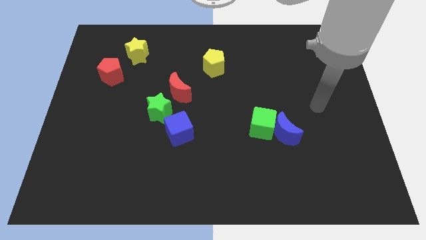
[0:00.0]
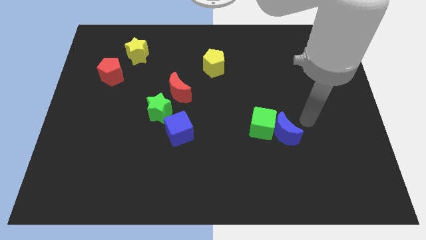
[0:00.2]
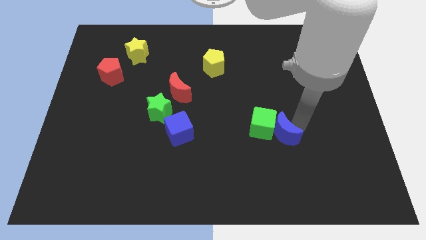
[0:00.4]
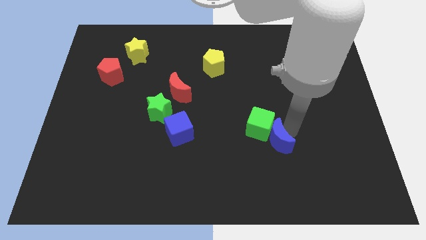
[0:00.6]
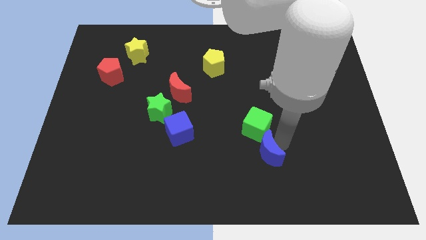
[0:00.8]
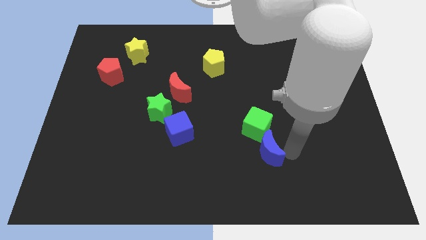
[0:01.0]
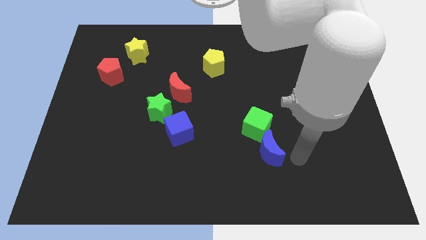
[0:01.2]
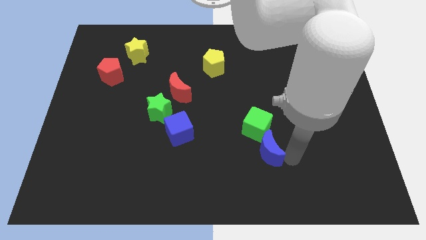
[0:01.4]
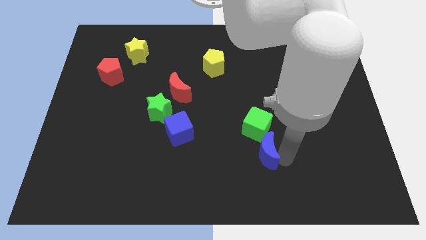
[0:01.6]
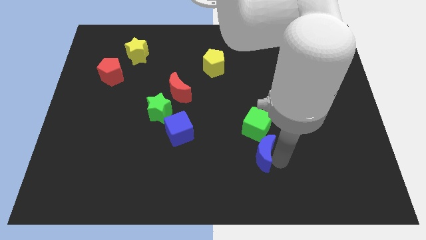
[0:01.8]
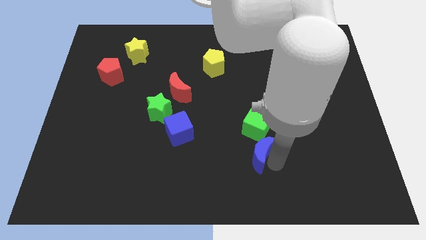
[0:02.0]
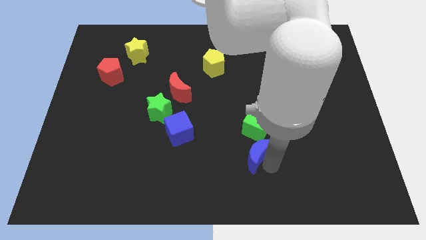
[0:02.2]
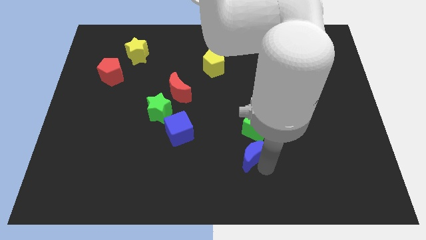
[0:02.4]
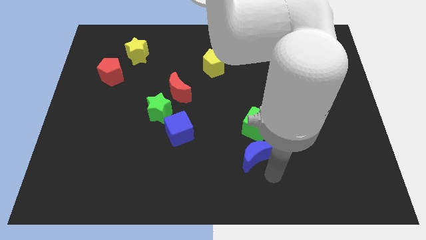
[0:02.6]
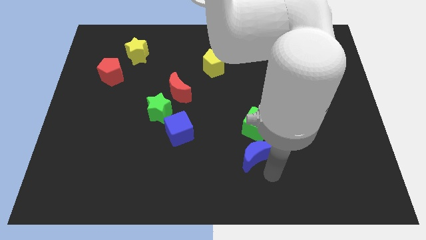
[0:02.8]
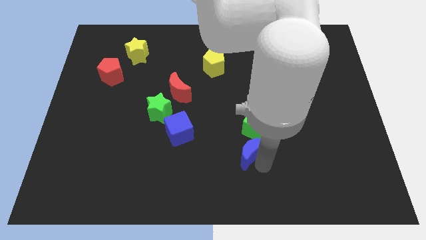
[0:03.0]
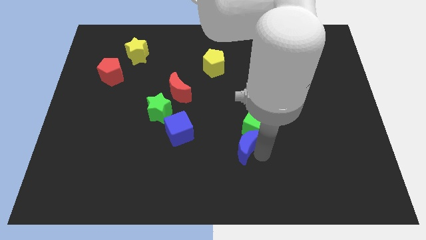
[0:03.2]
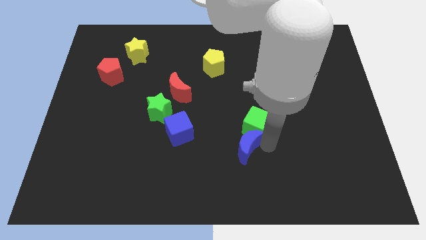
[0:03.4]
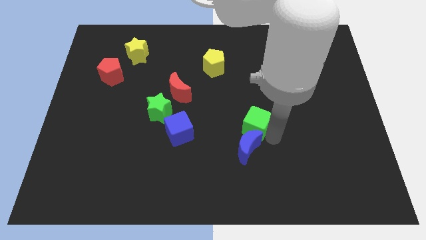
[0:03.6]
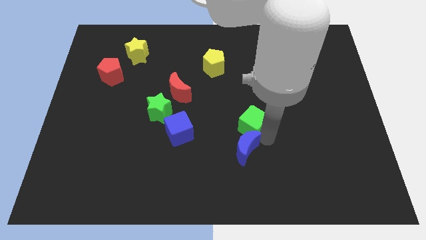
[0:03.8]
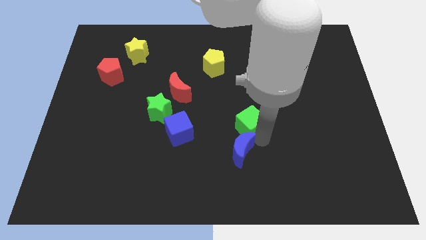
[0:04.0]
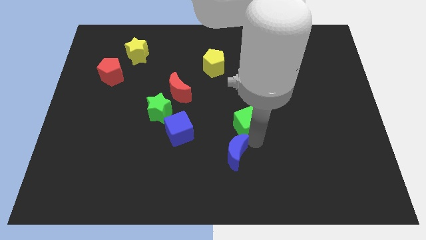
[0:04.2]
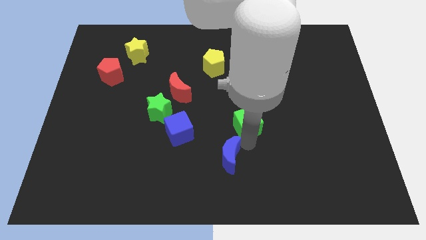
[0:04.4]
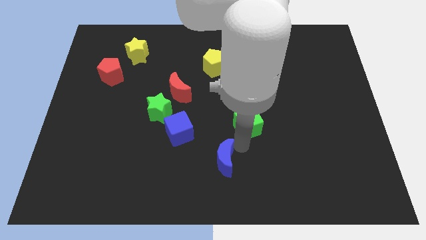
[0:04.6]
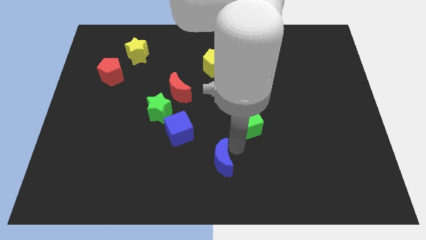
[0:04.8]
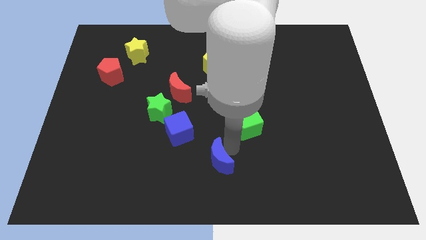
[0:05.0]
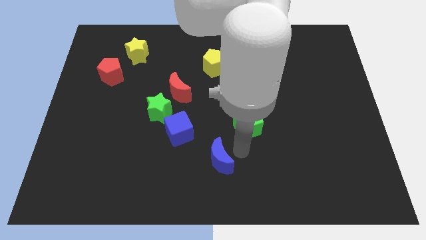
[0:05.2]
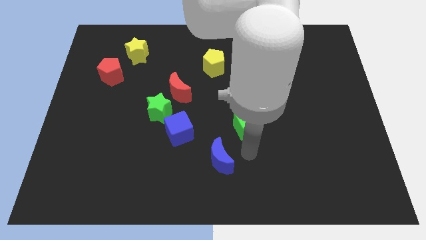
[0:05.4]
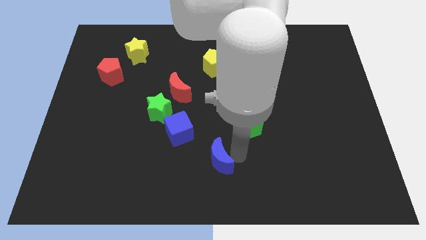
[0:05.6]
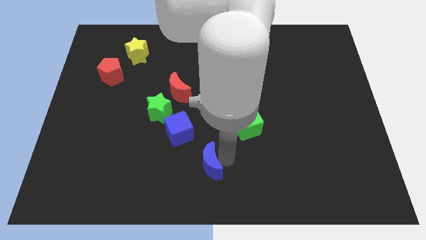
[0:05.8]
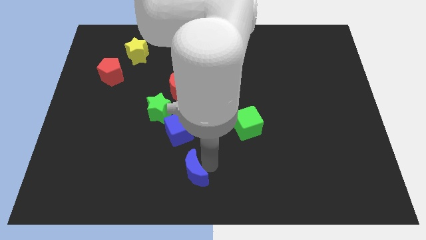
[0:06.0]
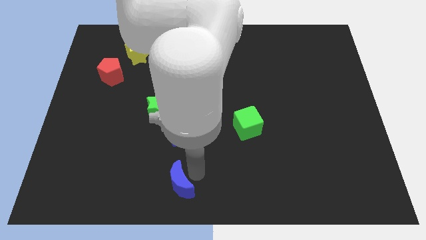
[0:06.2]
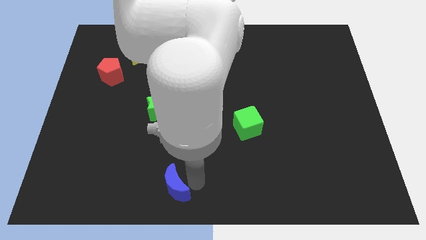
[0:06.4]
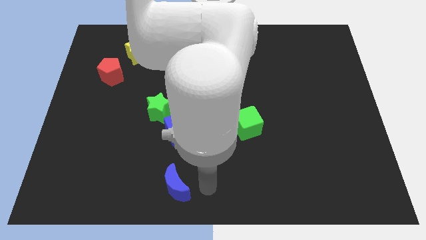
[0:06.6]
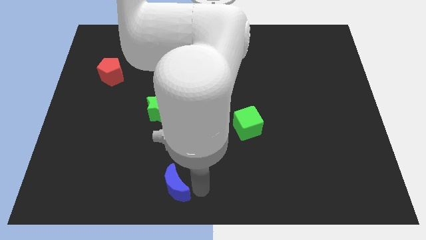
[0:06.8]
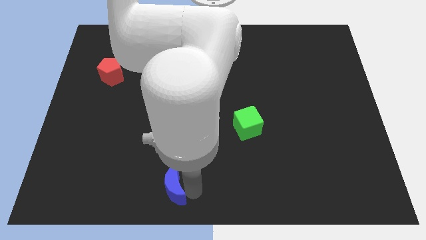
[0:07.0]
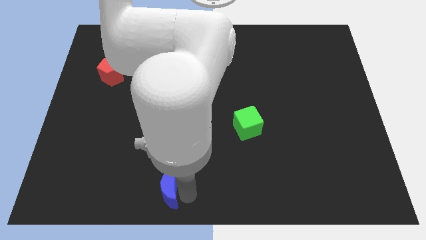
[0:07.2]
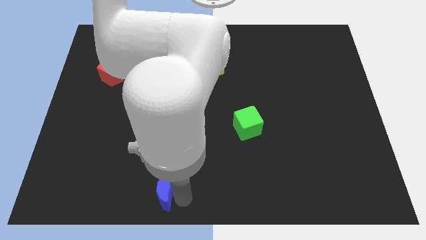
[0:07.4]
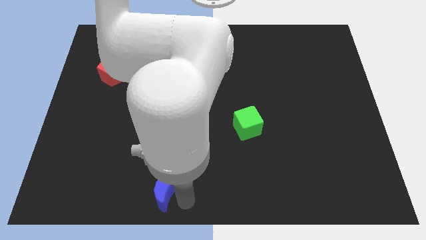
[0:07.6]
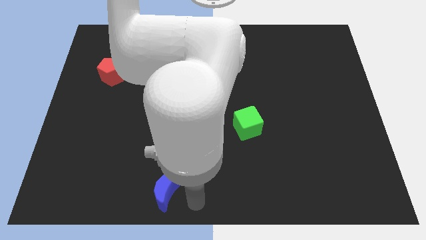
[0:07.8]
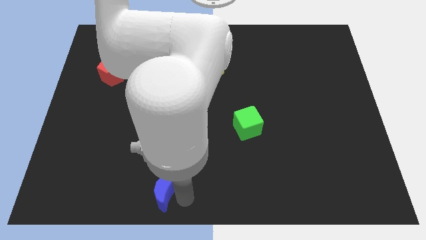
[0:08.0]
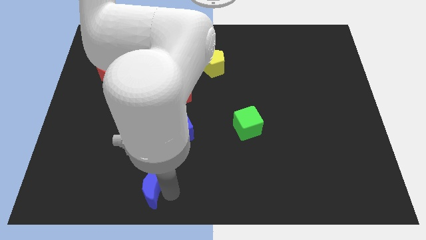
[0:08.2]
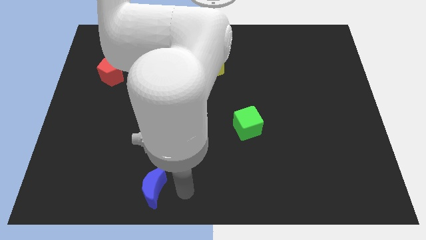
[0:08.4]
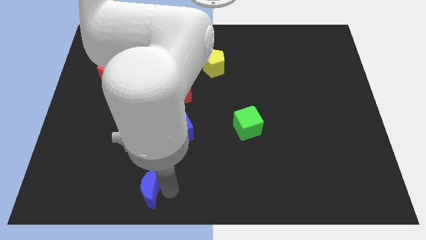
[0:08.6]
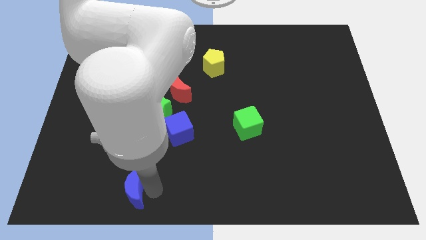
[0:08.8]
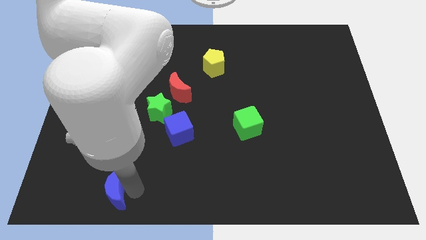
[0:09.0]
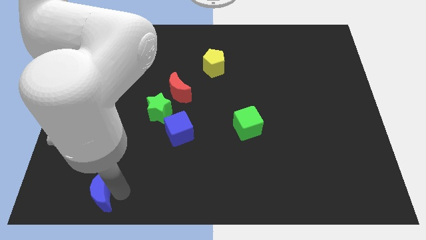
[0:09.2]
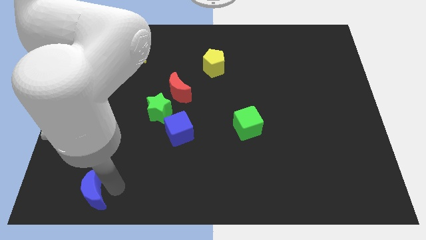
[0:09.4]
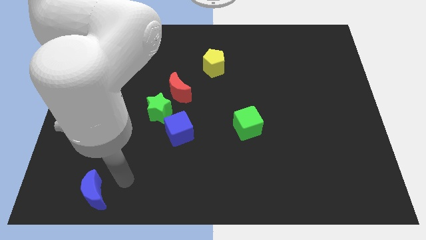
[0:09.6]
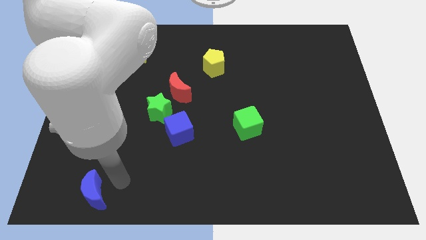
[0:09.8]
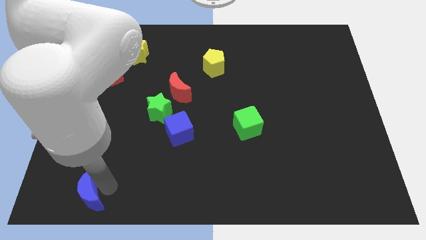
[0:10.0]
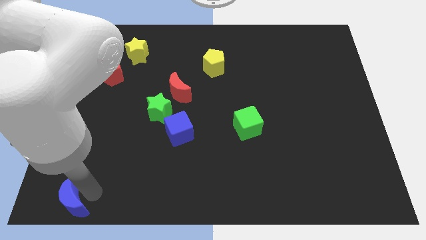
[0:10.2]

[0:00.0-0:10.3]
slide the blue moon to the bottom left

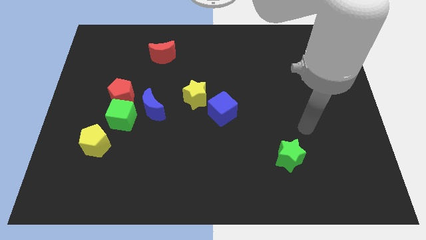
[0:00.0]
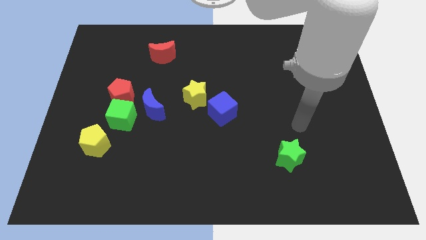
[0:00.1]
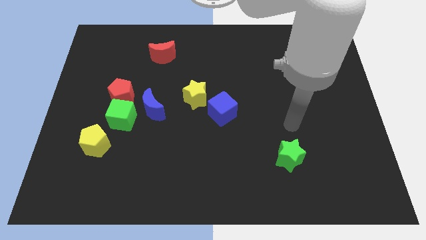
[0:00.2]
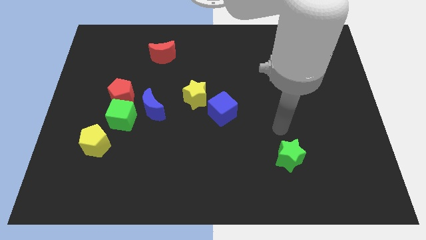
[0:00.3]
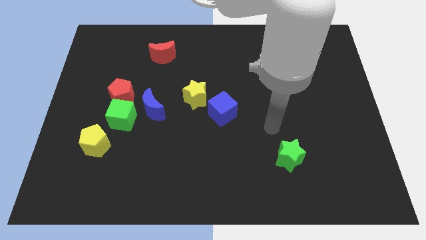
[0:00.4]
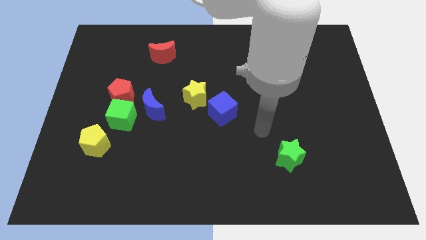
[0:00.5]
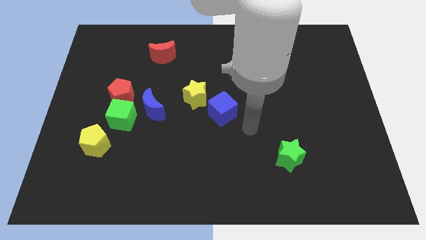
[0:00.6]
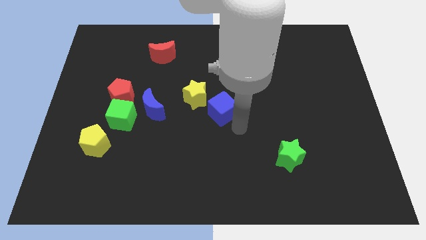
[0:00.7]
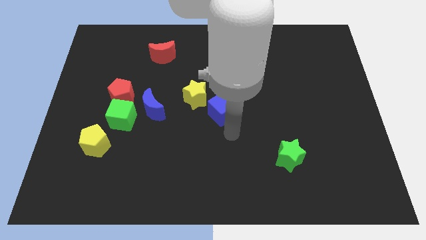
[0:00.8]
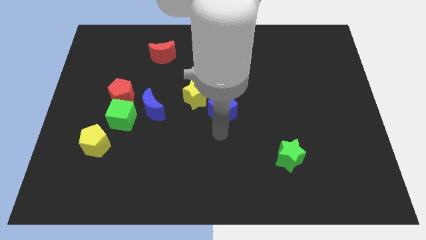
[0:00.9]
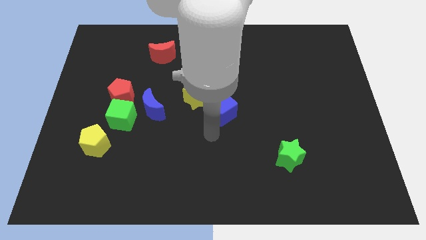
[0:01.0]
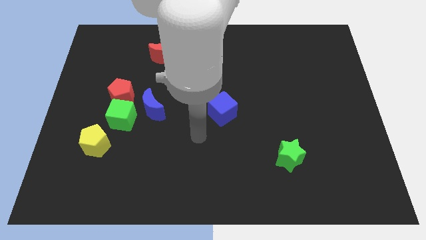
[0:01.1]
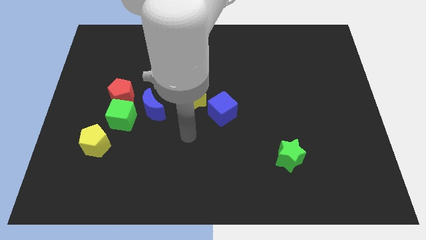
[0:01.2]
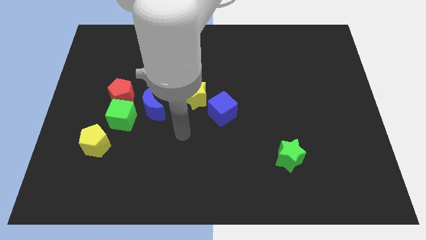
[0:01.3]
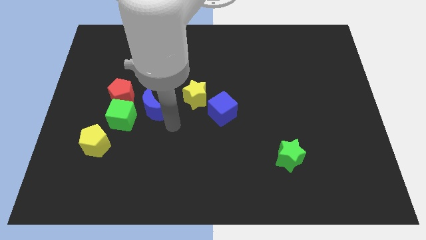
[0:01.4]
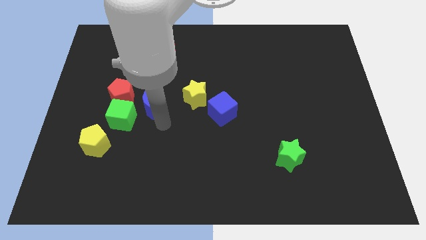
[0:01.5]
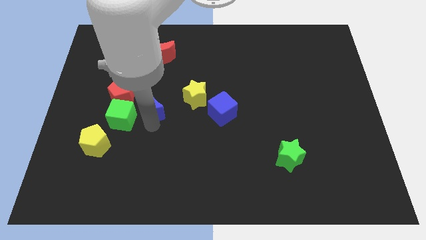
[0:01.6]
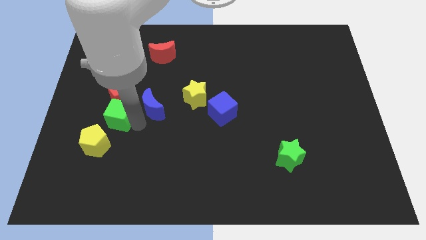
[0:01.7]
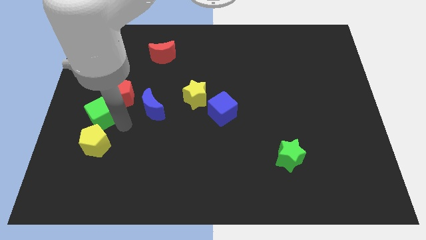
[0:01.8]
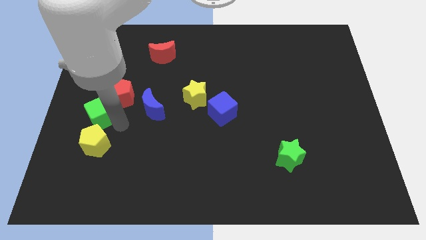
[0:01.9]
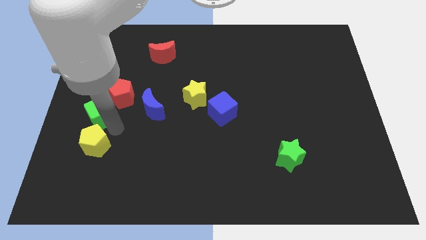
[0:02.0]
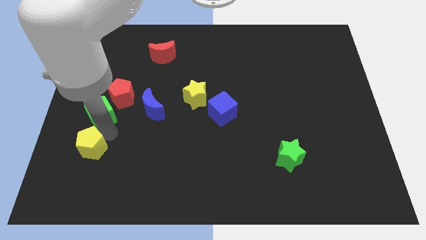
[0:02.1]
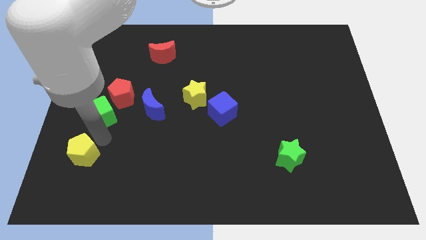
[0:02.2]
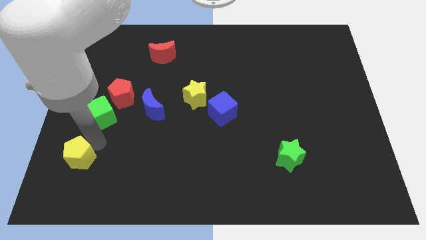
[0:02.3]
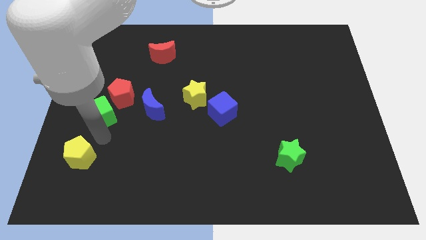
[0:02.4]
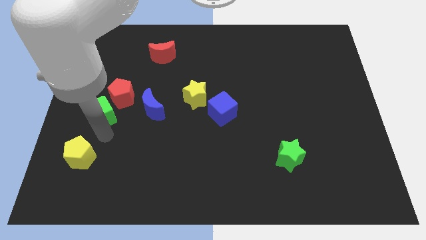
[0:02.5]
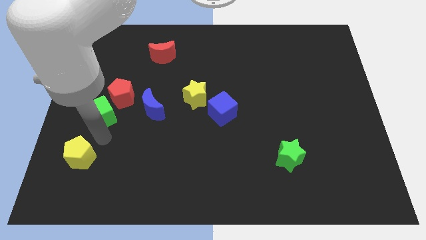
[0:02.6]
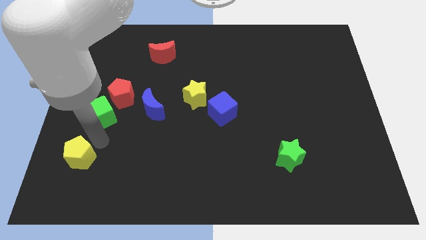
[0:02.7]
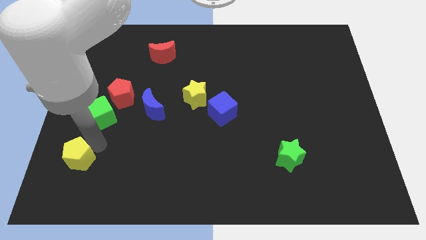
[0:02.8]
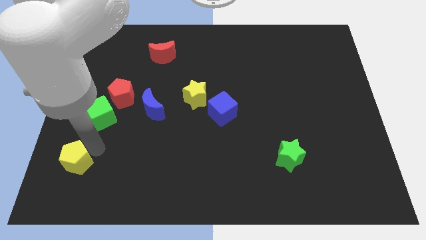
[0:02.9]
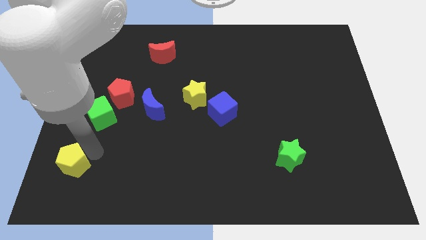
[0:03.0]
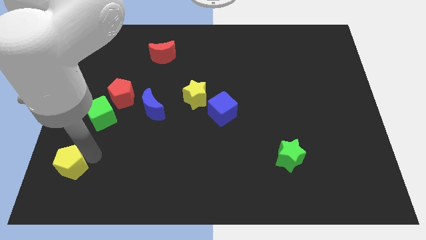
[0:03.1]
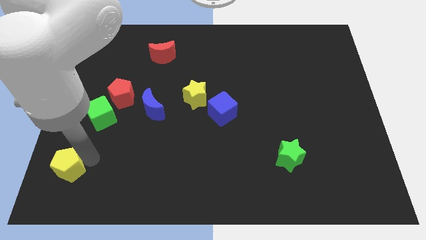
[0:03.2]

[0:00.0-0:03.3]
slide the yellow pentagon to the bottom left corner
